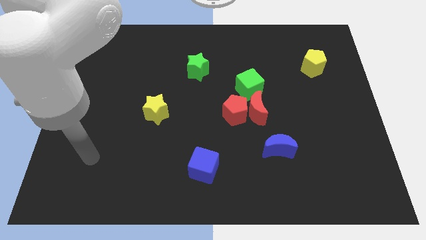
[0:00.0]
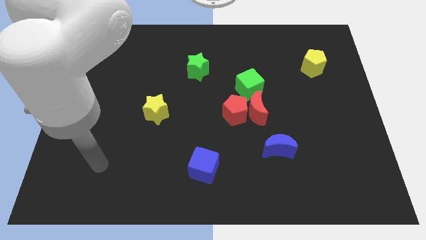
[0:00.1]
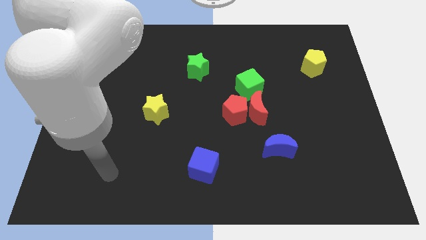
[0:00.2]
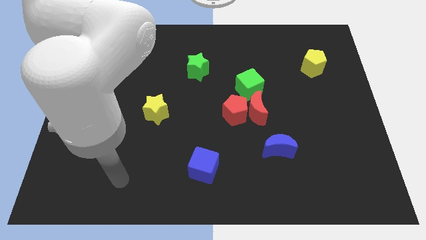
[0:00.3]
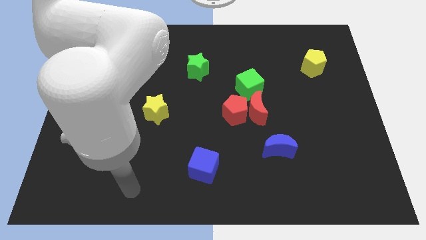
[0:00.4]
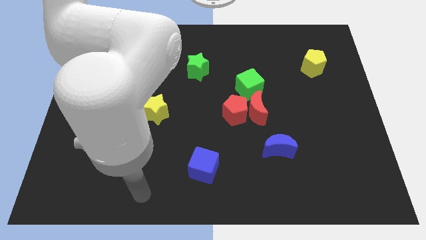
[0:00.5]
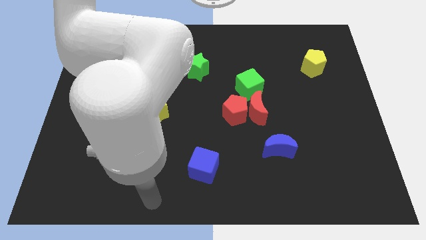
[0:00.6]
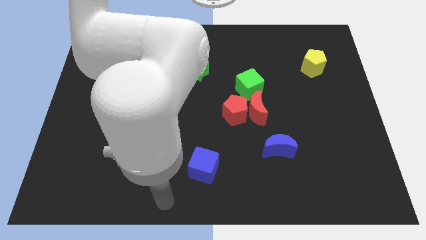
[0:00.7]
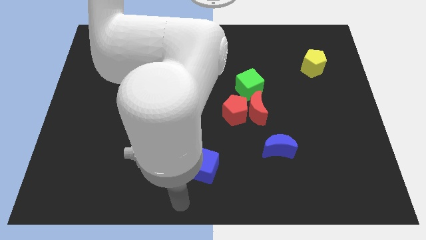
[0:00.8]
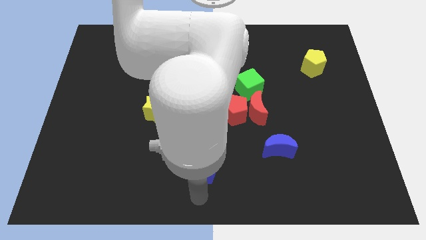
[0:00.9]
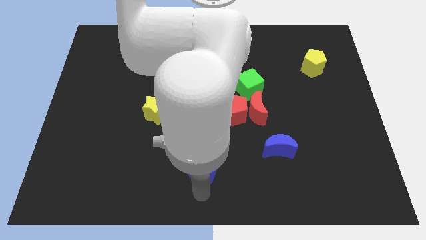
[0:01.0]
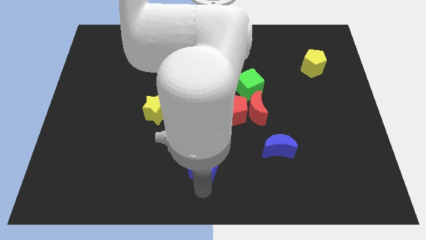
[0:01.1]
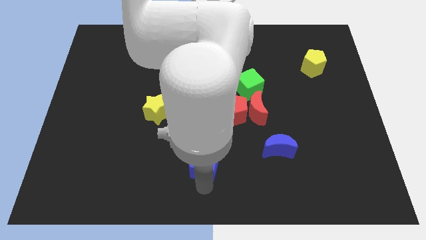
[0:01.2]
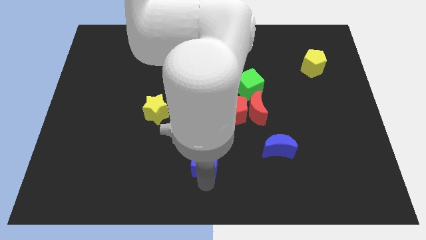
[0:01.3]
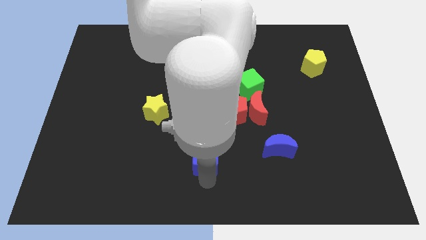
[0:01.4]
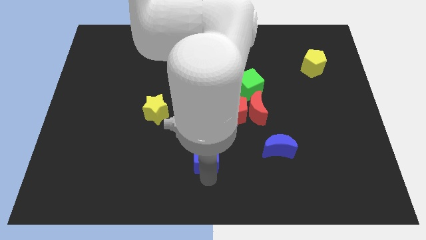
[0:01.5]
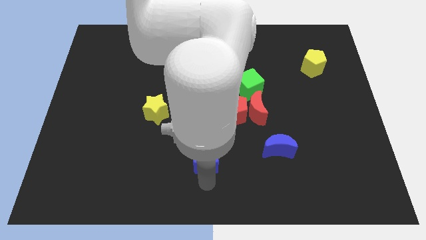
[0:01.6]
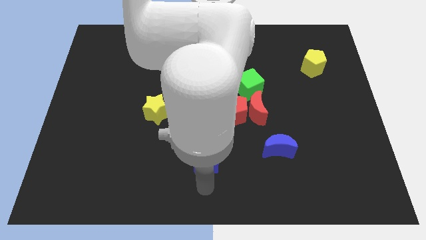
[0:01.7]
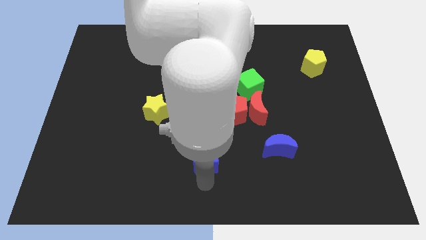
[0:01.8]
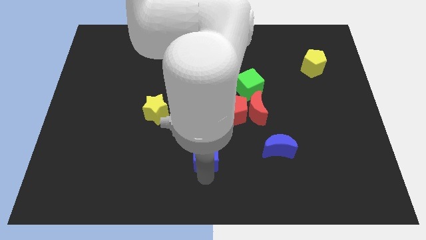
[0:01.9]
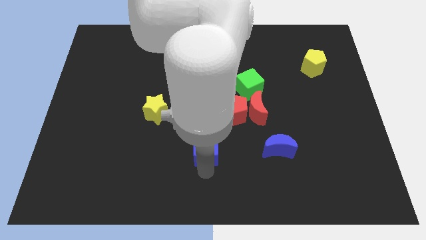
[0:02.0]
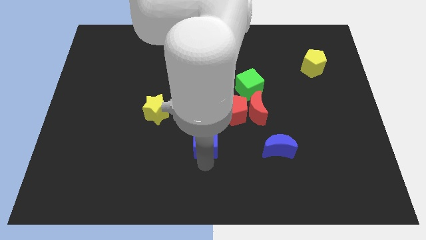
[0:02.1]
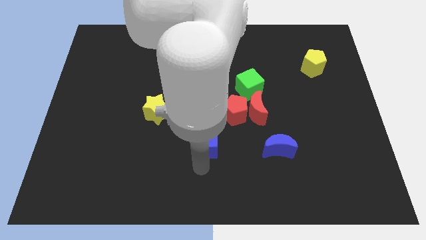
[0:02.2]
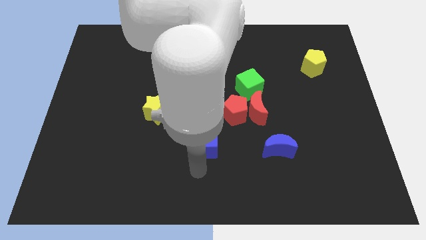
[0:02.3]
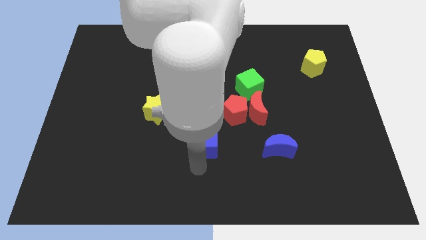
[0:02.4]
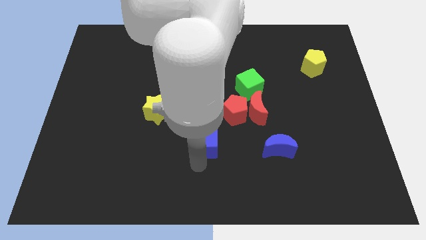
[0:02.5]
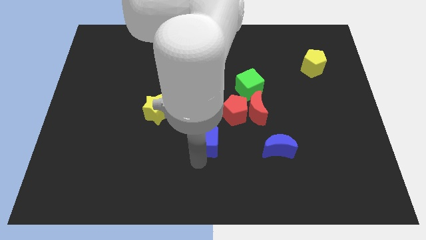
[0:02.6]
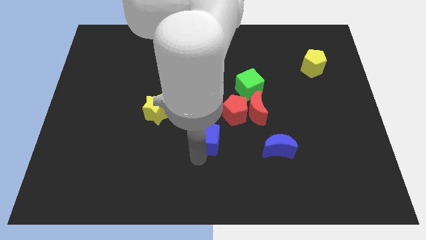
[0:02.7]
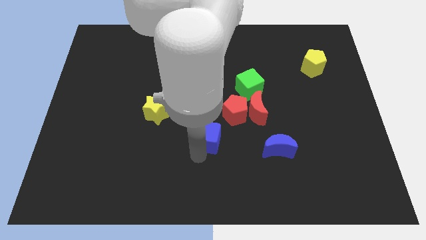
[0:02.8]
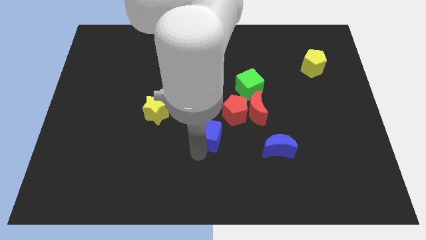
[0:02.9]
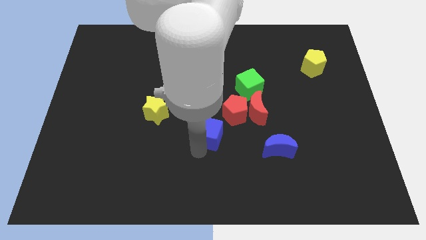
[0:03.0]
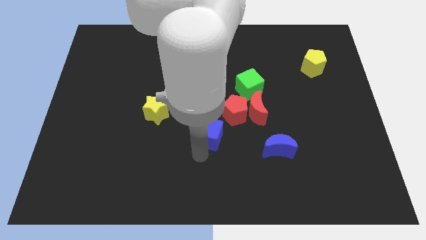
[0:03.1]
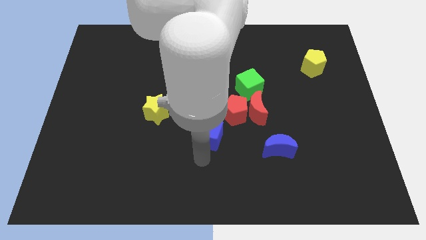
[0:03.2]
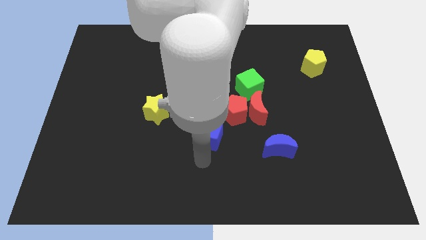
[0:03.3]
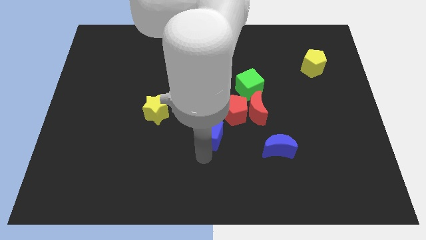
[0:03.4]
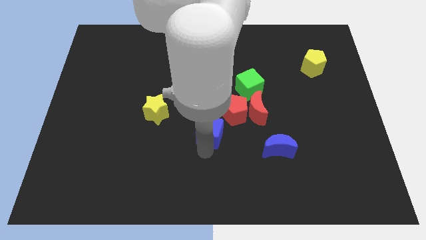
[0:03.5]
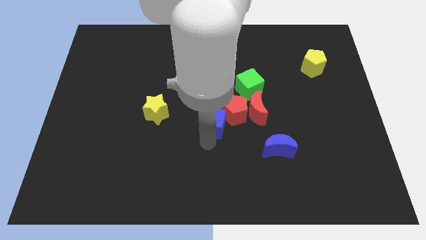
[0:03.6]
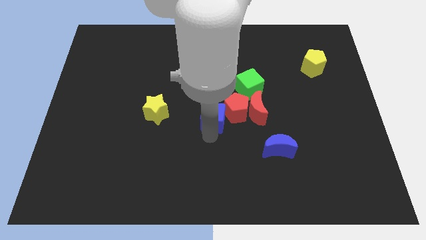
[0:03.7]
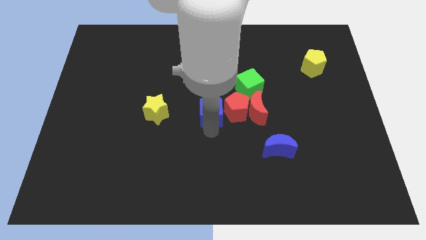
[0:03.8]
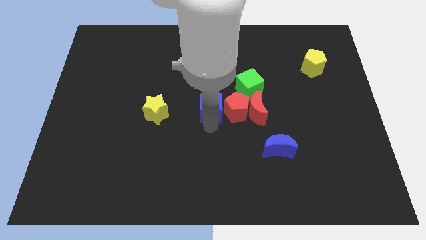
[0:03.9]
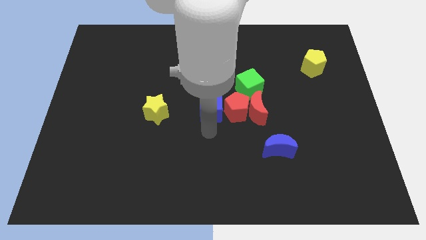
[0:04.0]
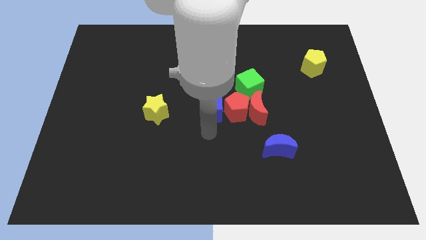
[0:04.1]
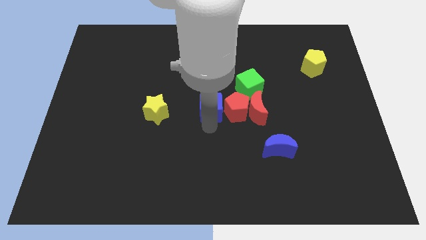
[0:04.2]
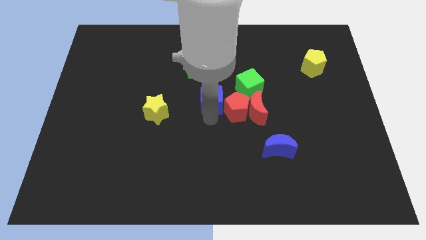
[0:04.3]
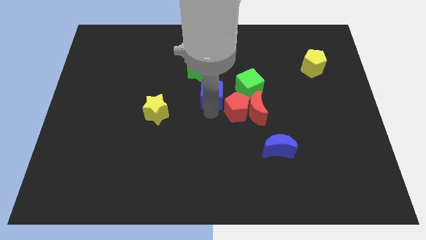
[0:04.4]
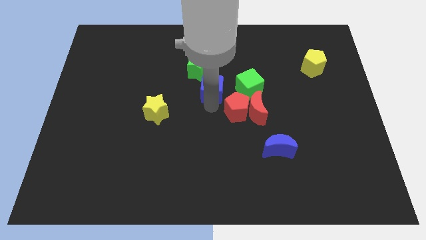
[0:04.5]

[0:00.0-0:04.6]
push the blue cube upwards

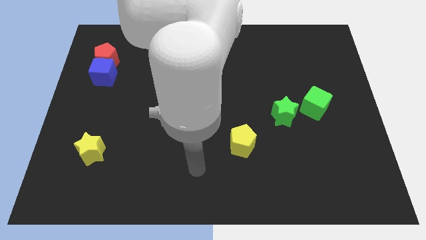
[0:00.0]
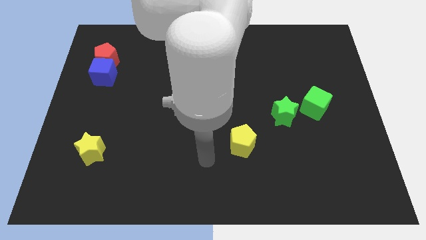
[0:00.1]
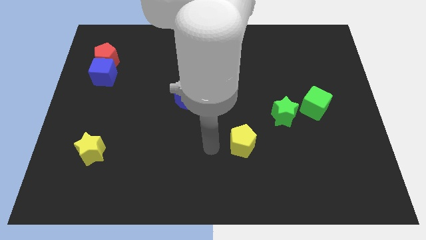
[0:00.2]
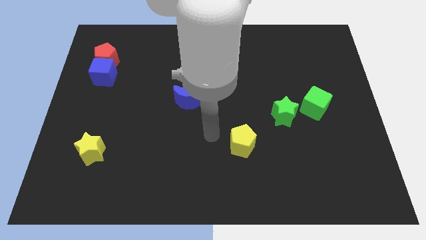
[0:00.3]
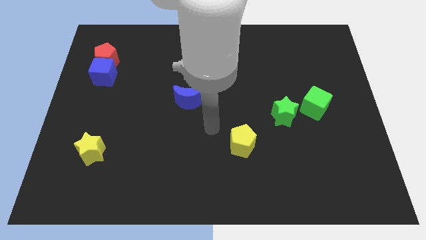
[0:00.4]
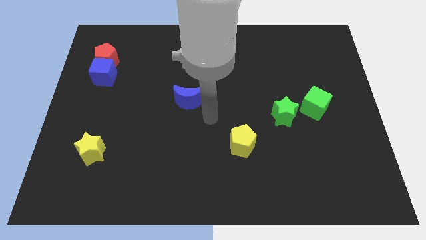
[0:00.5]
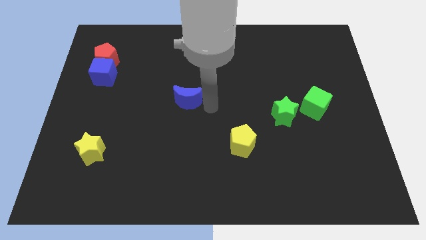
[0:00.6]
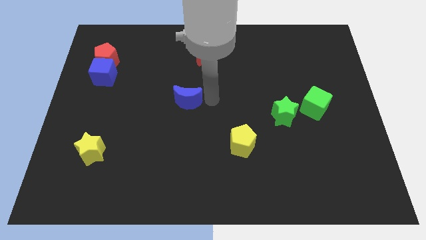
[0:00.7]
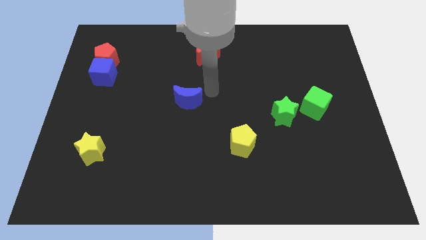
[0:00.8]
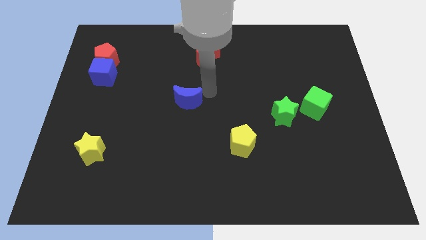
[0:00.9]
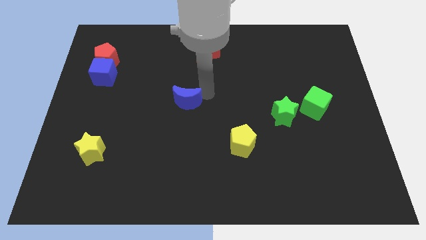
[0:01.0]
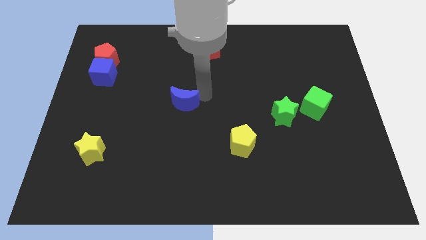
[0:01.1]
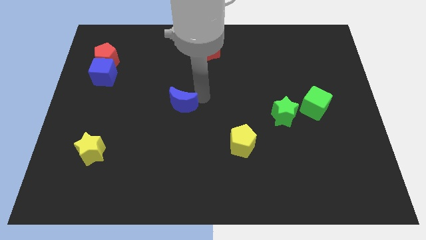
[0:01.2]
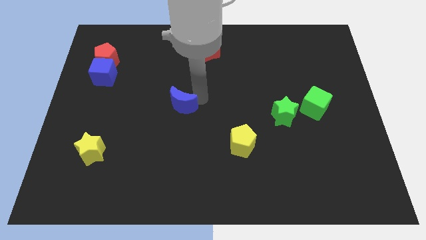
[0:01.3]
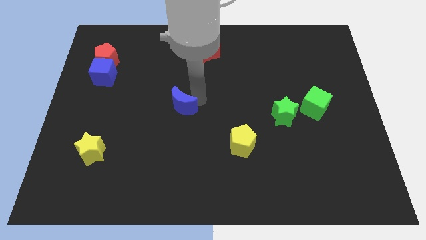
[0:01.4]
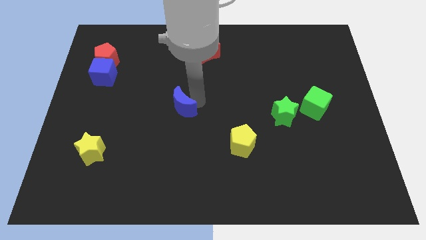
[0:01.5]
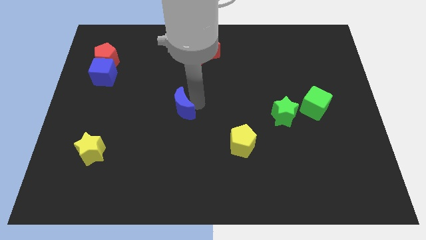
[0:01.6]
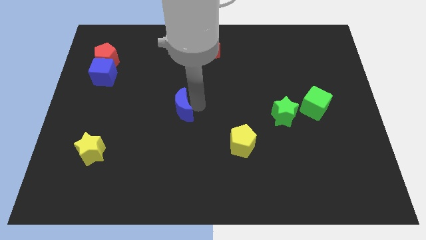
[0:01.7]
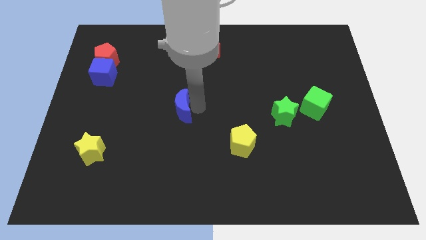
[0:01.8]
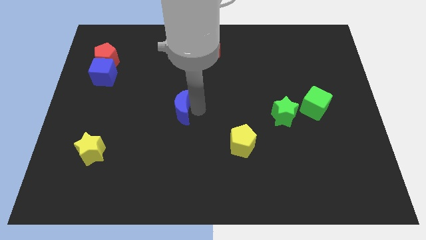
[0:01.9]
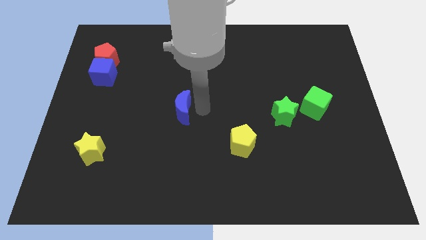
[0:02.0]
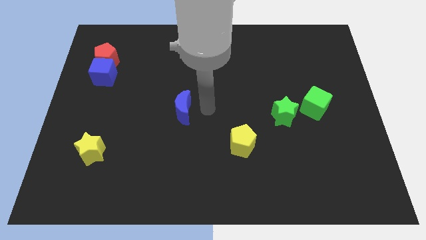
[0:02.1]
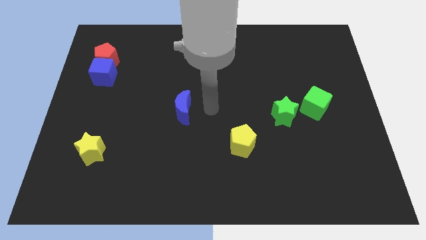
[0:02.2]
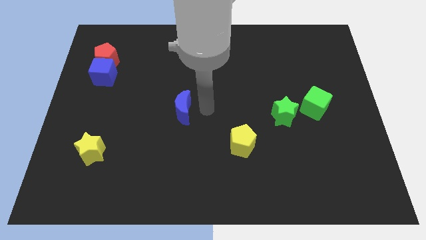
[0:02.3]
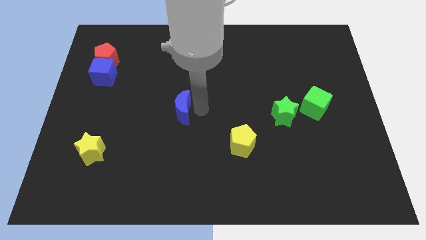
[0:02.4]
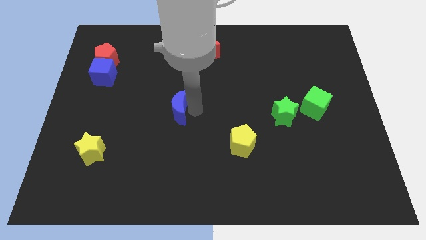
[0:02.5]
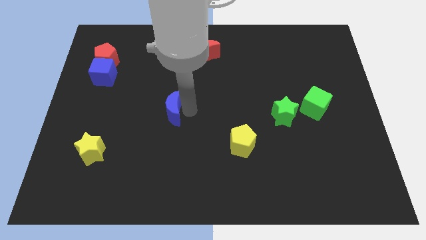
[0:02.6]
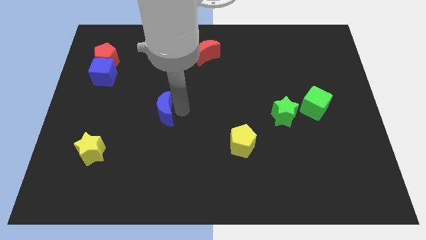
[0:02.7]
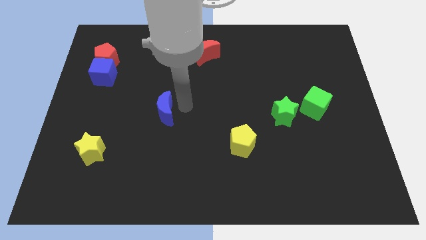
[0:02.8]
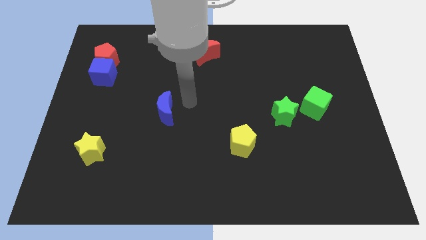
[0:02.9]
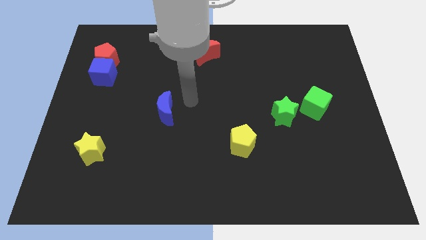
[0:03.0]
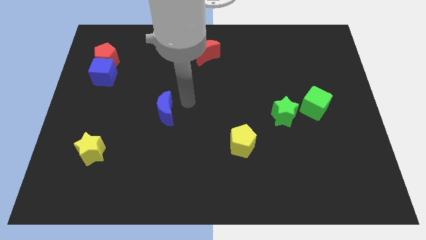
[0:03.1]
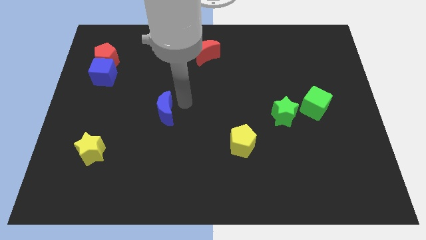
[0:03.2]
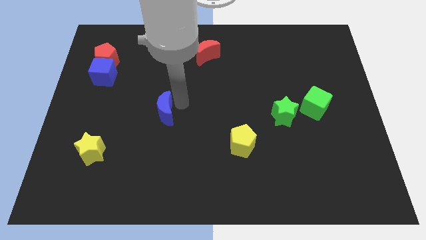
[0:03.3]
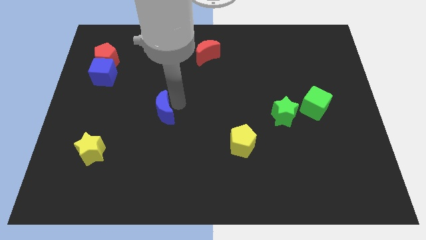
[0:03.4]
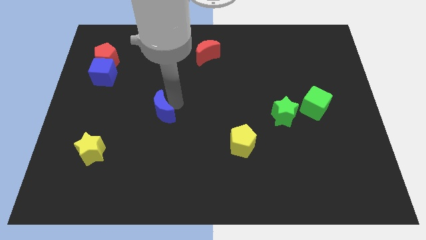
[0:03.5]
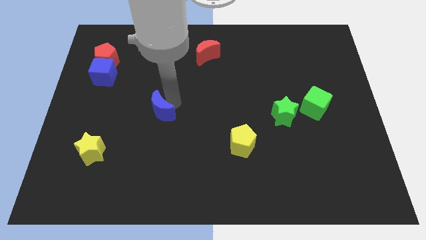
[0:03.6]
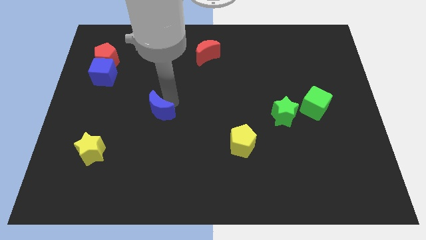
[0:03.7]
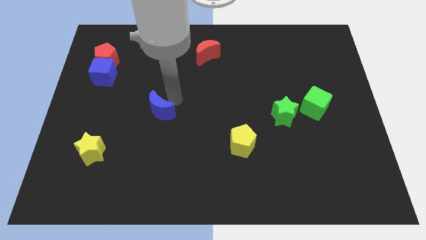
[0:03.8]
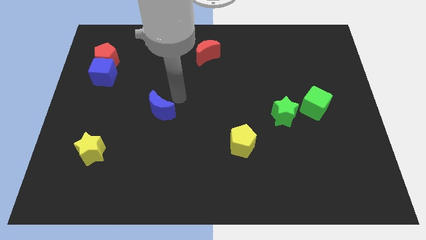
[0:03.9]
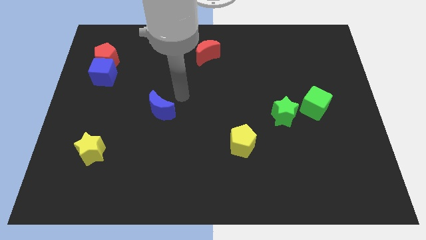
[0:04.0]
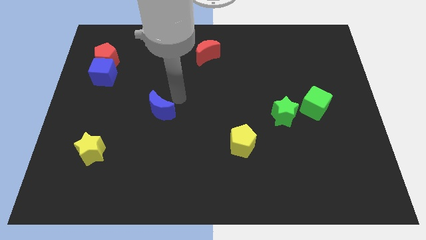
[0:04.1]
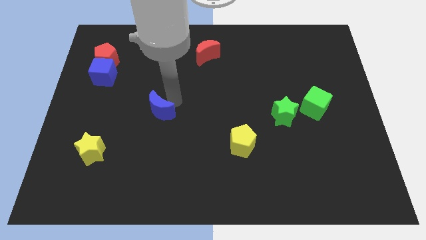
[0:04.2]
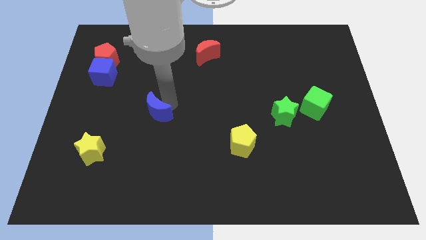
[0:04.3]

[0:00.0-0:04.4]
push the blue moon a bit downwards and then to the left
